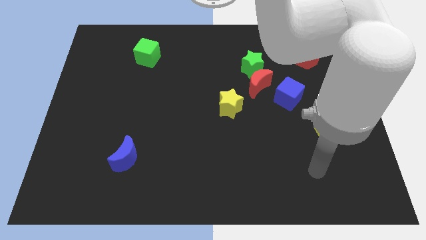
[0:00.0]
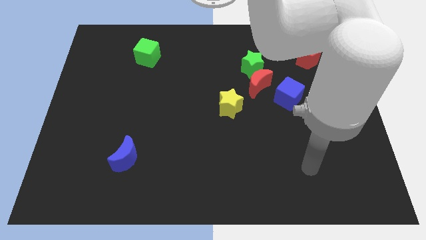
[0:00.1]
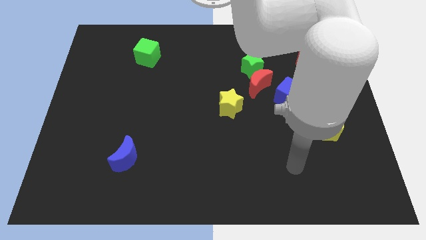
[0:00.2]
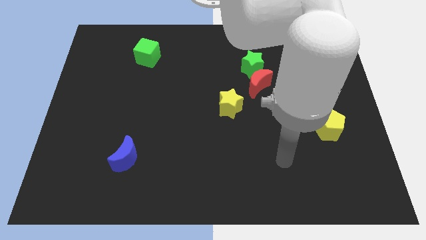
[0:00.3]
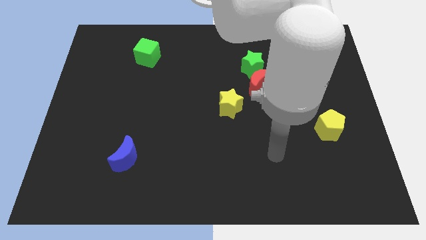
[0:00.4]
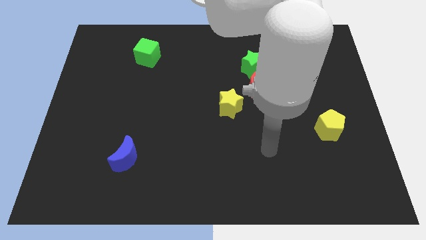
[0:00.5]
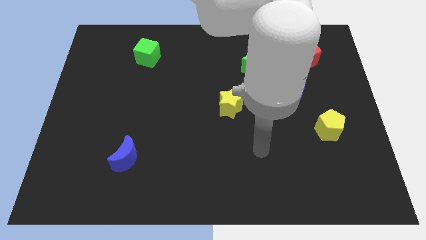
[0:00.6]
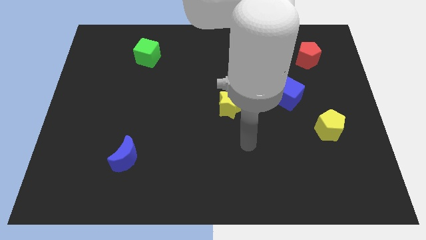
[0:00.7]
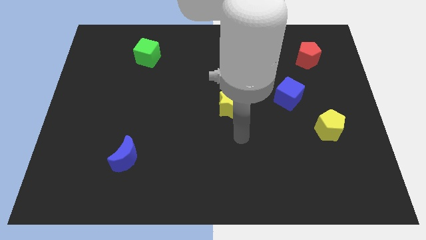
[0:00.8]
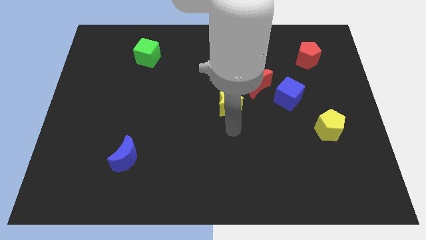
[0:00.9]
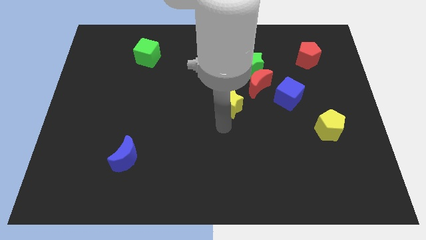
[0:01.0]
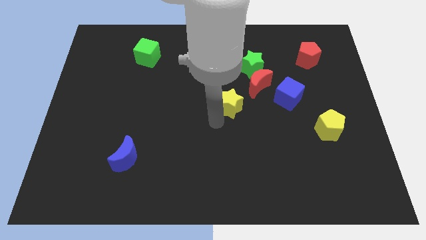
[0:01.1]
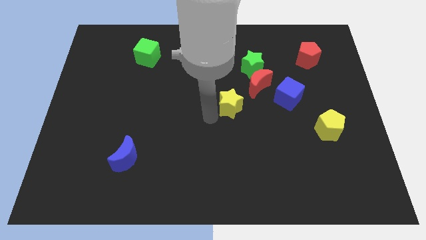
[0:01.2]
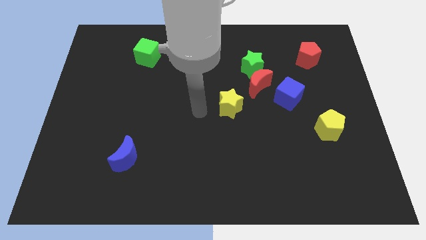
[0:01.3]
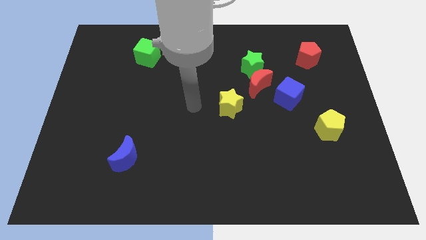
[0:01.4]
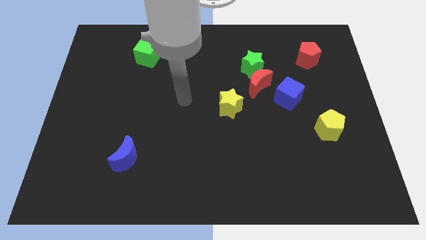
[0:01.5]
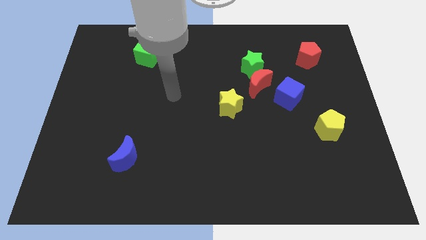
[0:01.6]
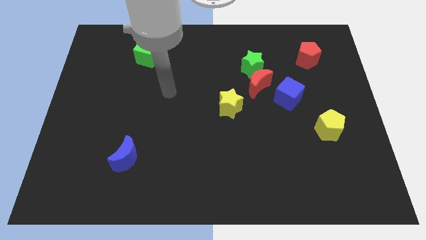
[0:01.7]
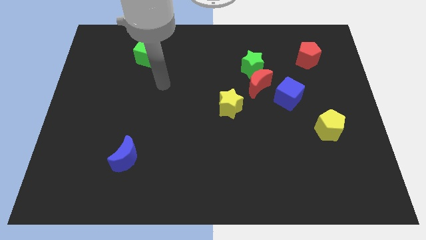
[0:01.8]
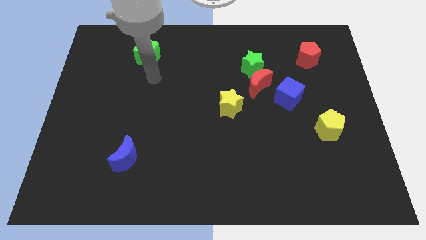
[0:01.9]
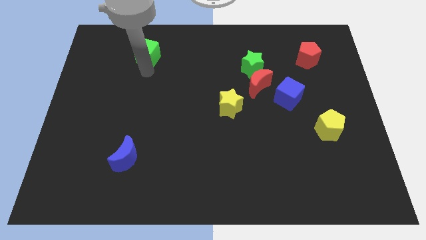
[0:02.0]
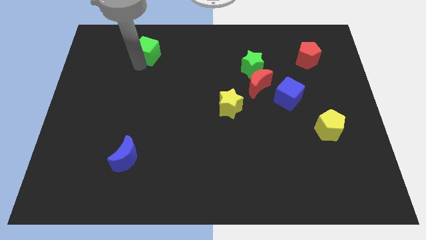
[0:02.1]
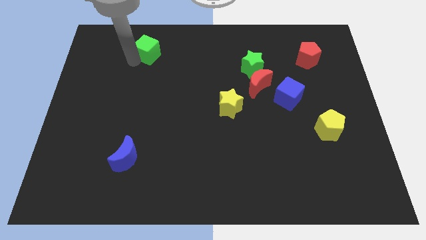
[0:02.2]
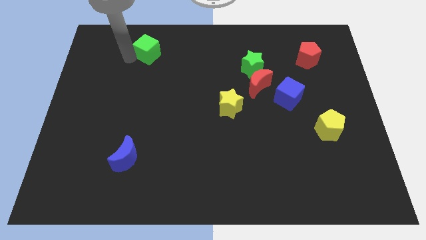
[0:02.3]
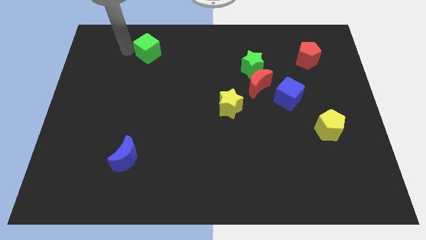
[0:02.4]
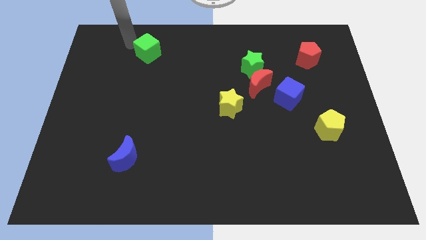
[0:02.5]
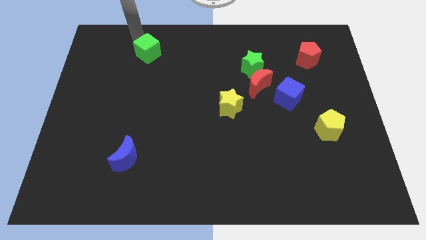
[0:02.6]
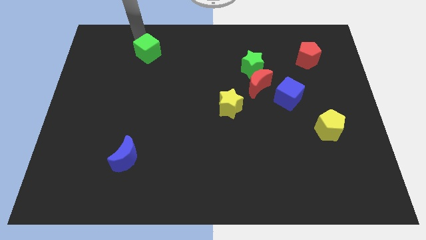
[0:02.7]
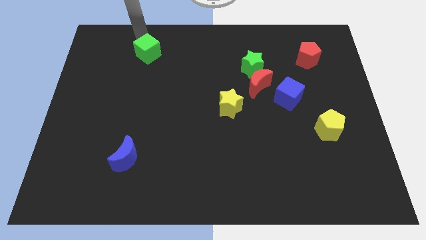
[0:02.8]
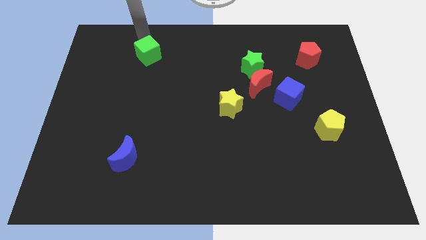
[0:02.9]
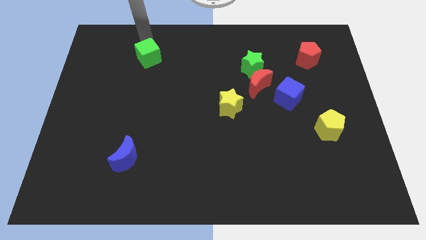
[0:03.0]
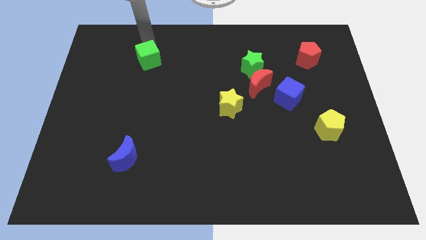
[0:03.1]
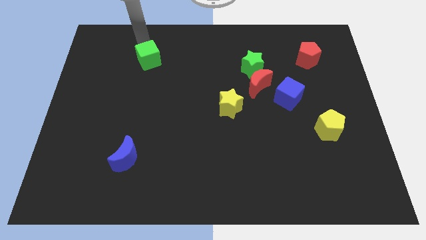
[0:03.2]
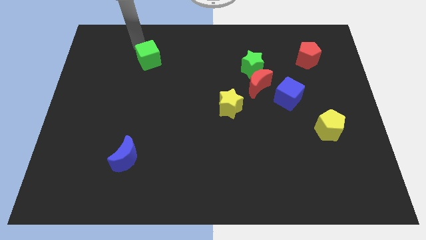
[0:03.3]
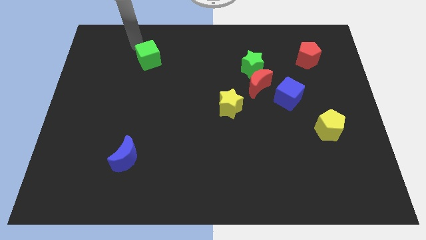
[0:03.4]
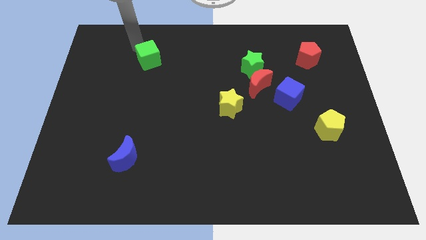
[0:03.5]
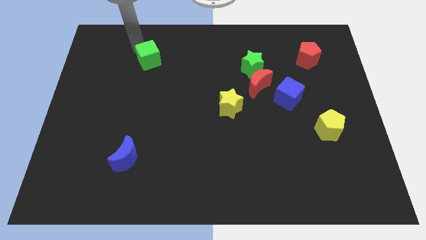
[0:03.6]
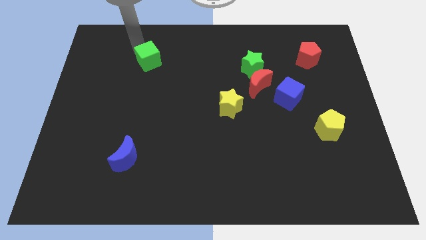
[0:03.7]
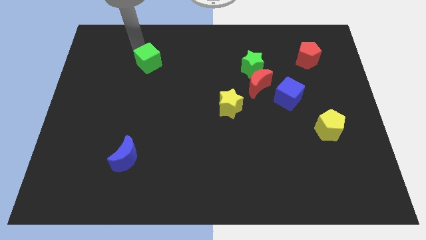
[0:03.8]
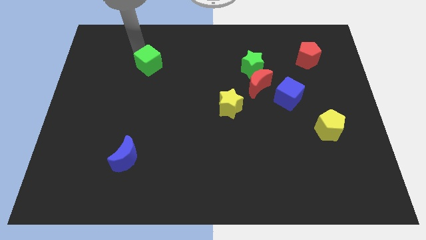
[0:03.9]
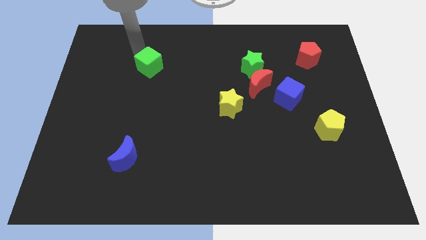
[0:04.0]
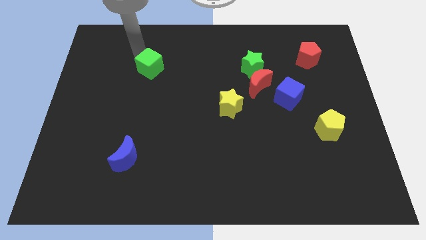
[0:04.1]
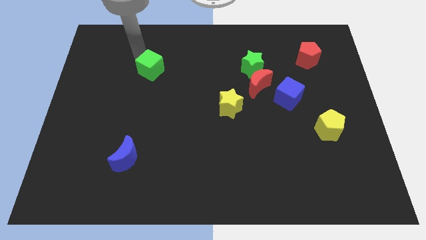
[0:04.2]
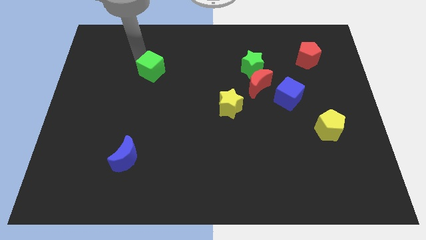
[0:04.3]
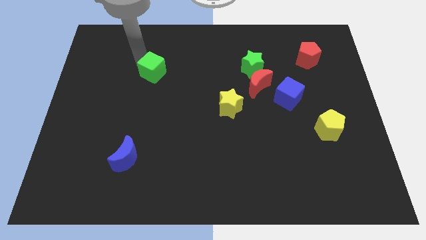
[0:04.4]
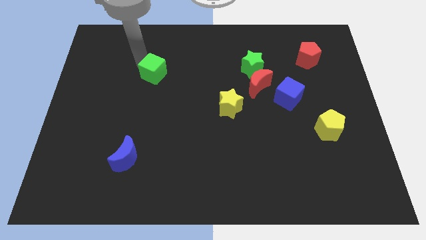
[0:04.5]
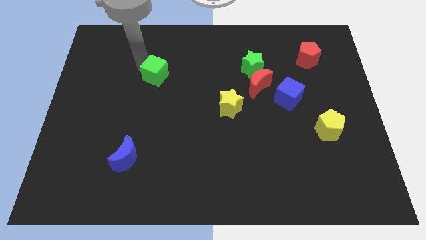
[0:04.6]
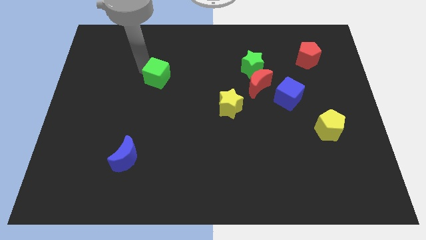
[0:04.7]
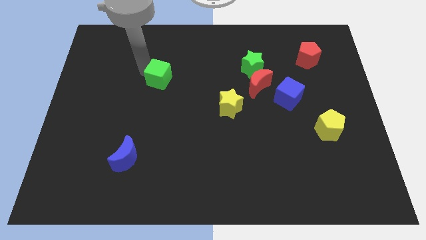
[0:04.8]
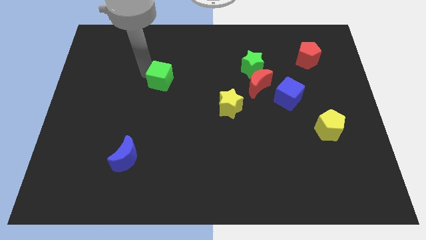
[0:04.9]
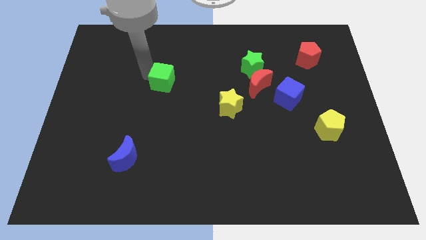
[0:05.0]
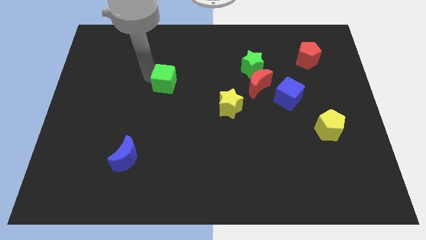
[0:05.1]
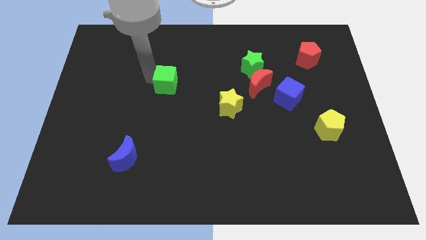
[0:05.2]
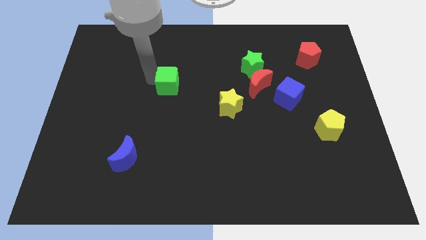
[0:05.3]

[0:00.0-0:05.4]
slide the green cube to the middle

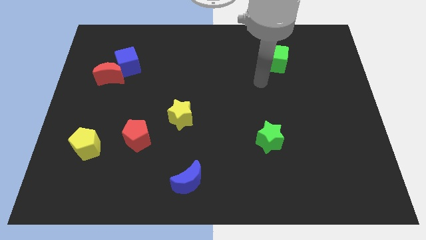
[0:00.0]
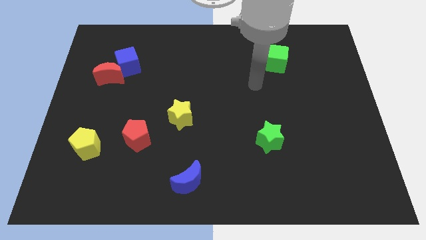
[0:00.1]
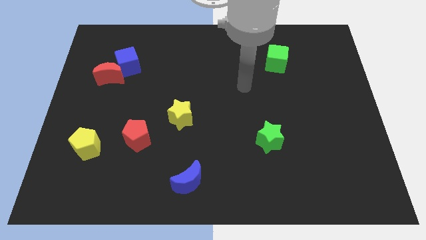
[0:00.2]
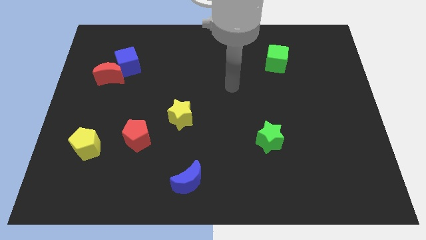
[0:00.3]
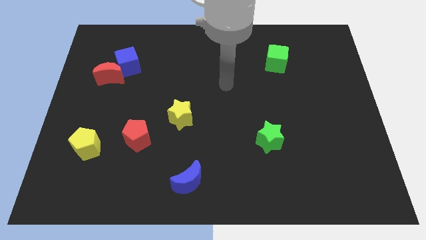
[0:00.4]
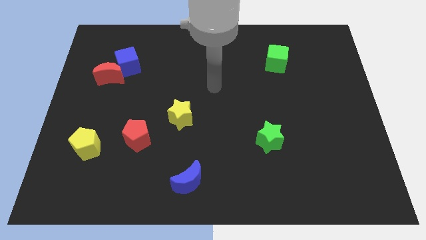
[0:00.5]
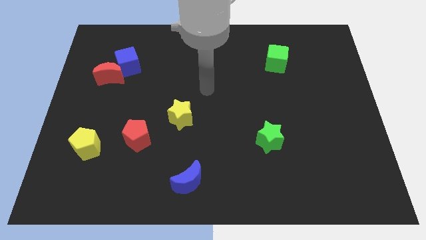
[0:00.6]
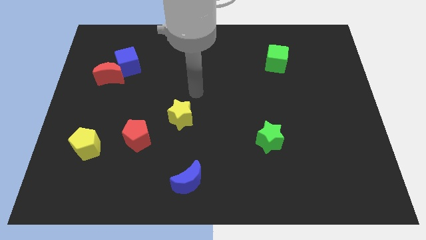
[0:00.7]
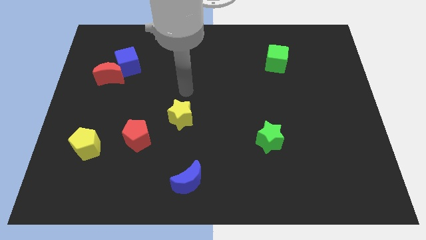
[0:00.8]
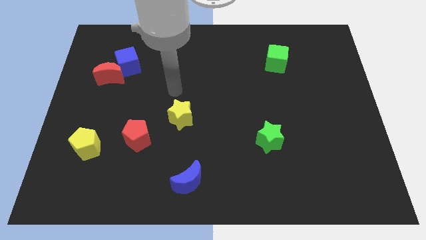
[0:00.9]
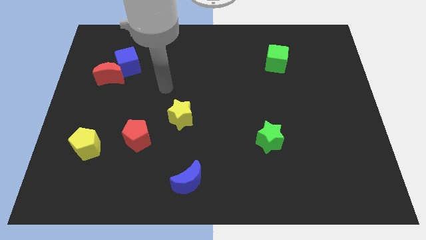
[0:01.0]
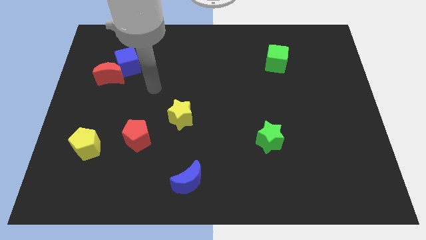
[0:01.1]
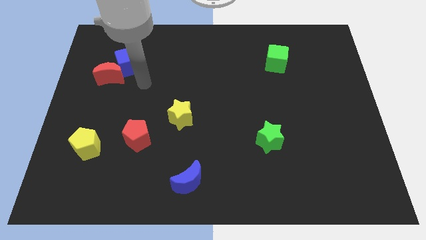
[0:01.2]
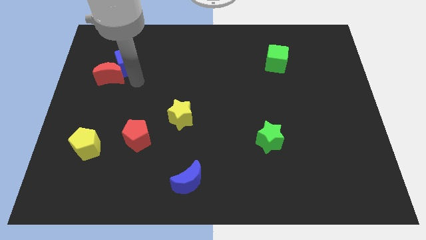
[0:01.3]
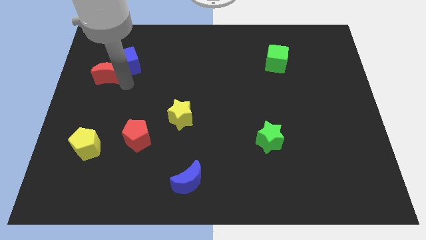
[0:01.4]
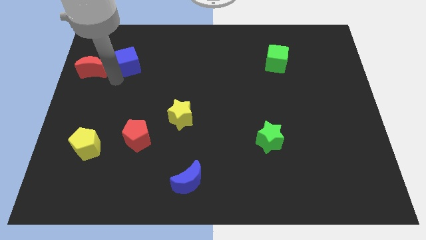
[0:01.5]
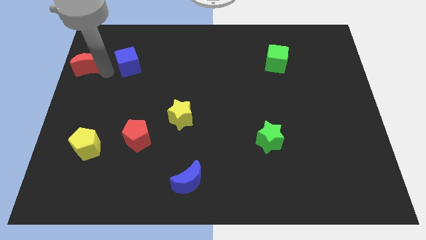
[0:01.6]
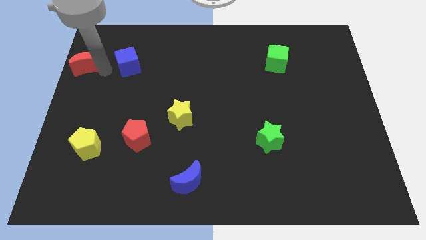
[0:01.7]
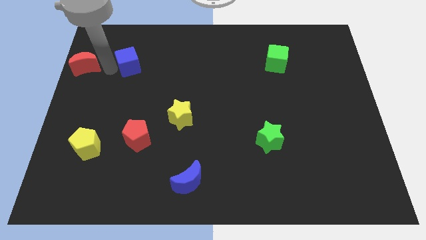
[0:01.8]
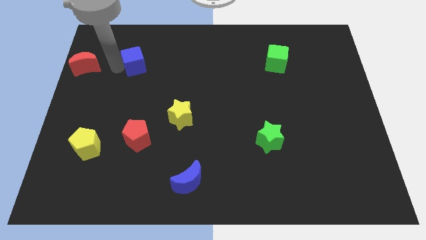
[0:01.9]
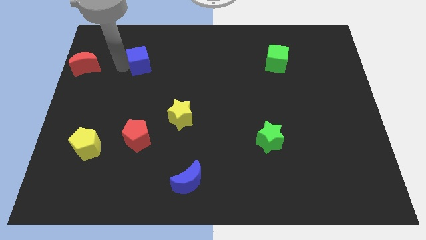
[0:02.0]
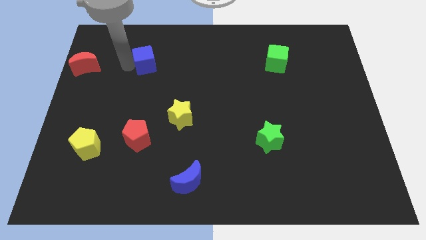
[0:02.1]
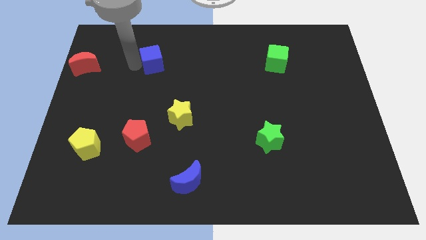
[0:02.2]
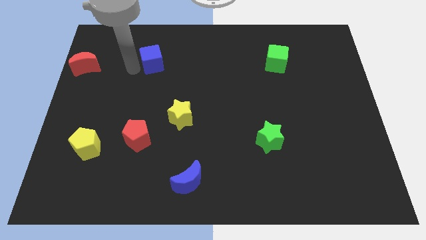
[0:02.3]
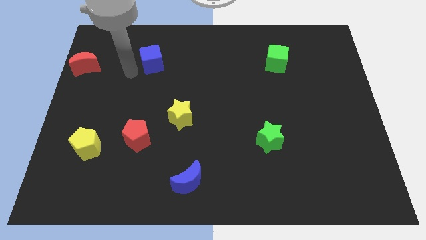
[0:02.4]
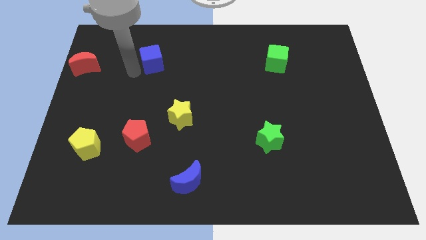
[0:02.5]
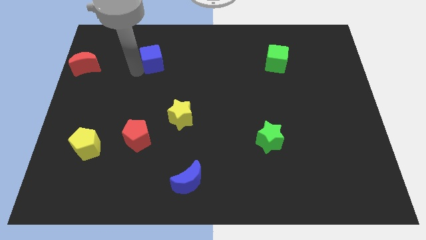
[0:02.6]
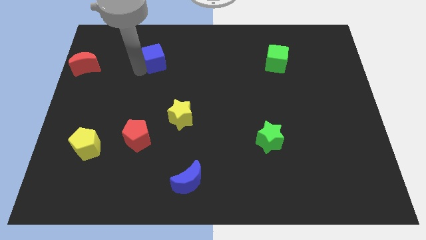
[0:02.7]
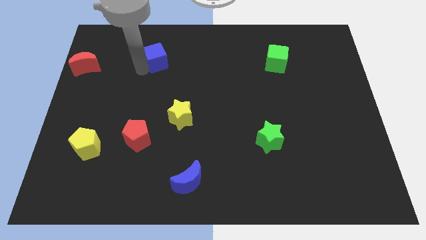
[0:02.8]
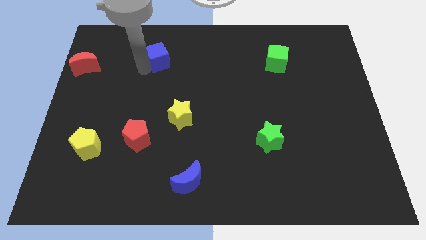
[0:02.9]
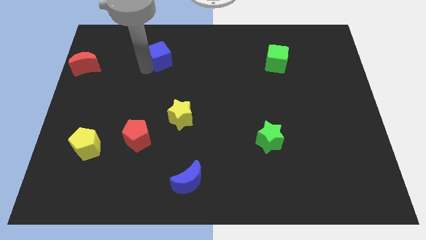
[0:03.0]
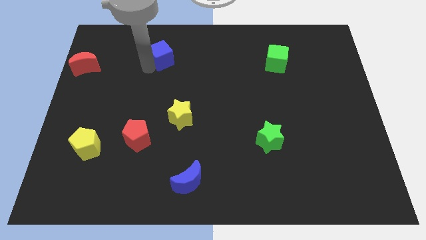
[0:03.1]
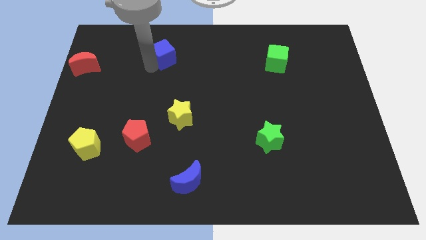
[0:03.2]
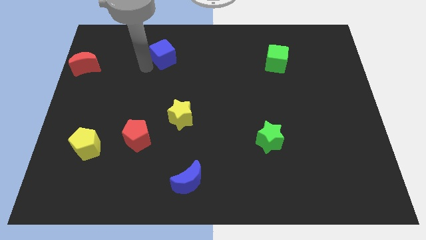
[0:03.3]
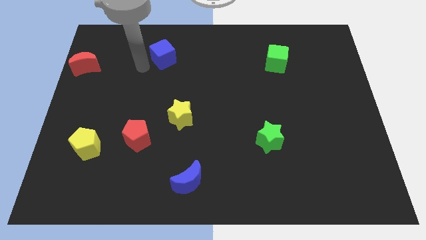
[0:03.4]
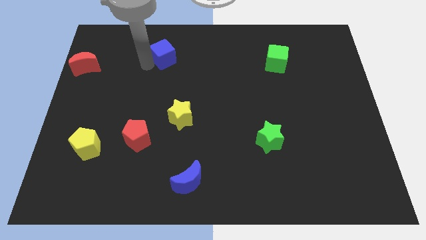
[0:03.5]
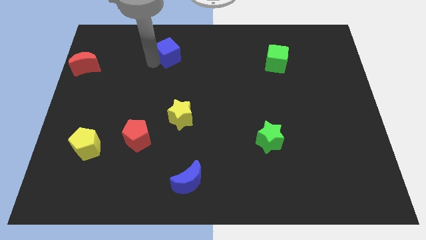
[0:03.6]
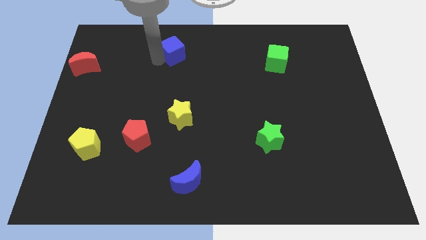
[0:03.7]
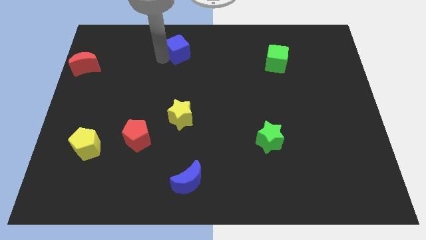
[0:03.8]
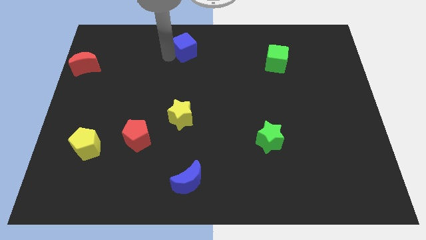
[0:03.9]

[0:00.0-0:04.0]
slide the blue cube to the towards your base
